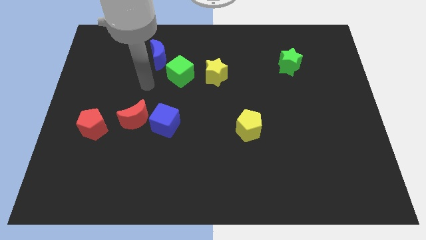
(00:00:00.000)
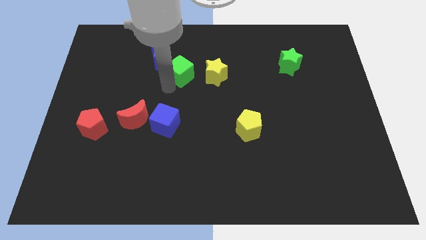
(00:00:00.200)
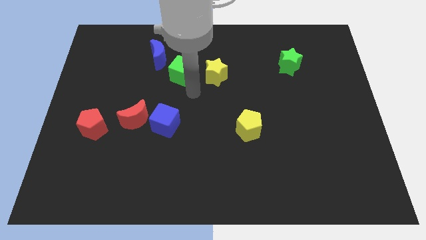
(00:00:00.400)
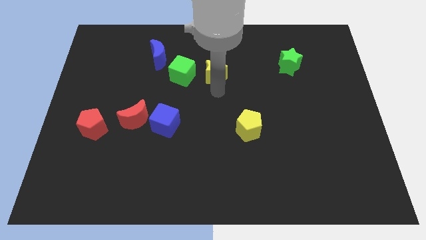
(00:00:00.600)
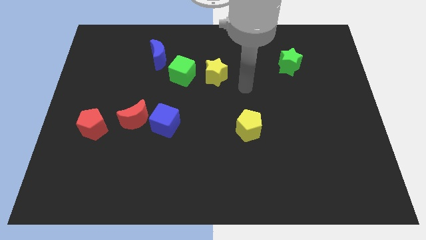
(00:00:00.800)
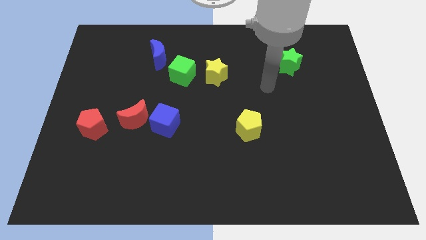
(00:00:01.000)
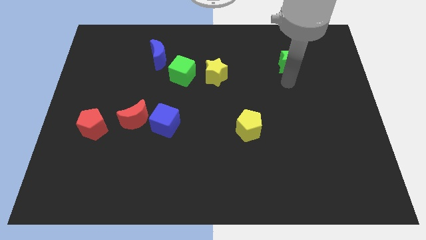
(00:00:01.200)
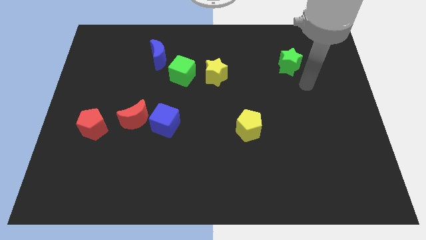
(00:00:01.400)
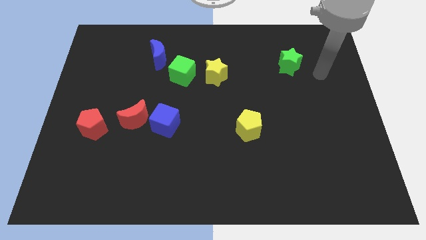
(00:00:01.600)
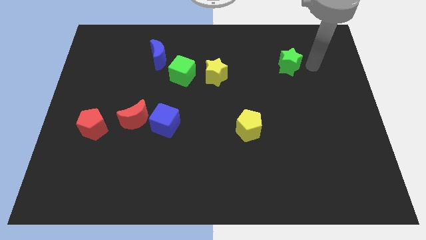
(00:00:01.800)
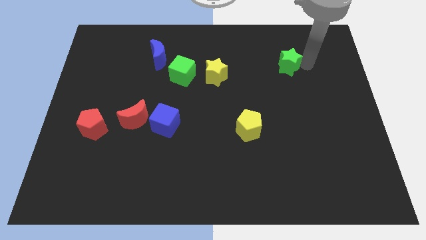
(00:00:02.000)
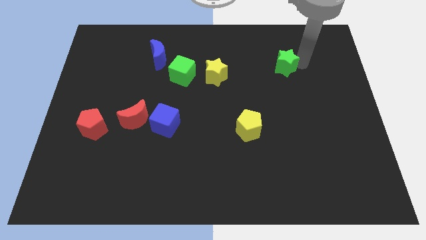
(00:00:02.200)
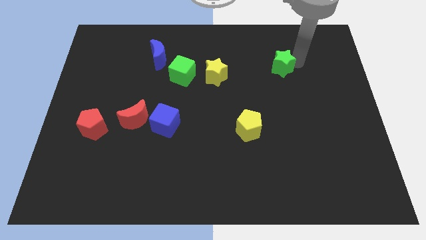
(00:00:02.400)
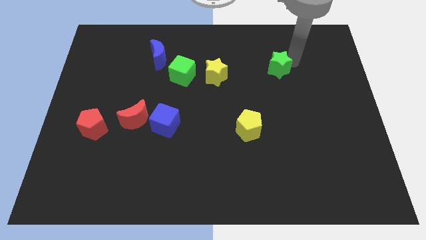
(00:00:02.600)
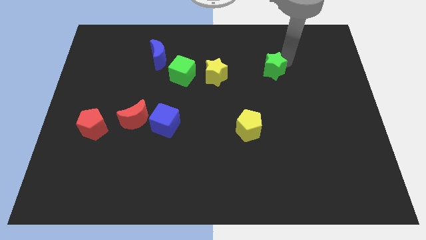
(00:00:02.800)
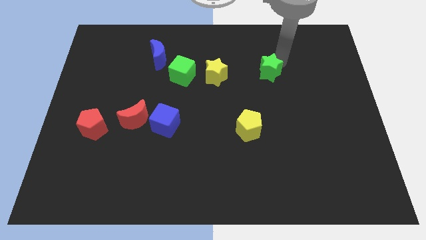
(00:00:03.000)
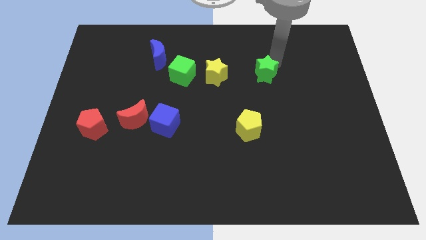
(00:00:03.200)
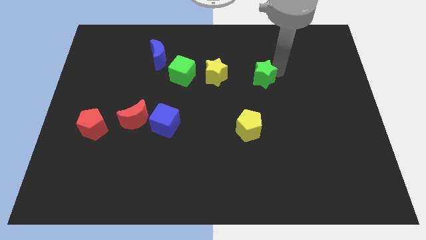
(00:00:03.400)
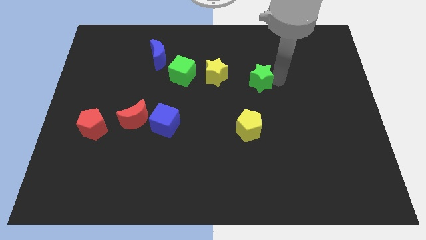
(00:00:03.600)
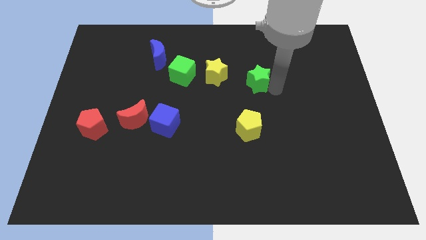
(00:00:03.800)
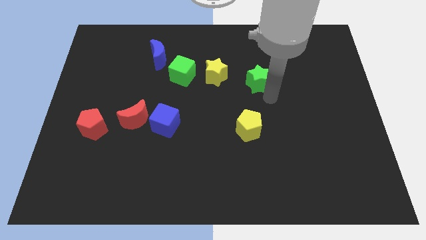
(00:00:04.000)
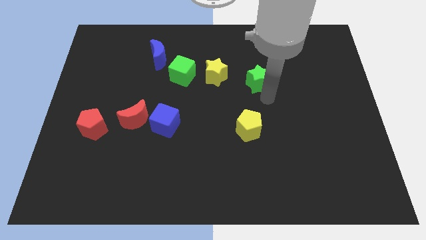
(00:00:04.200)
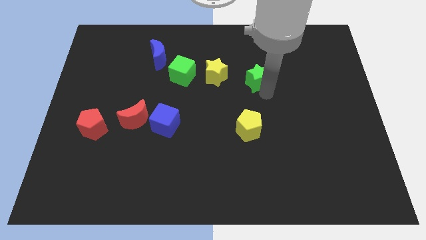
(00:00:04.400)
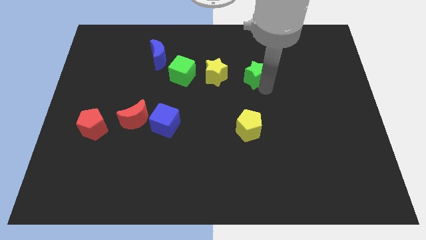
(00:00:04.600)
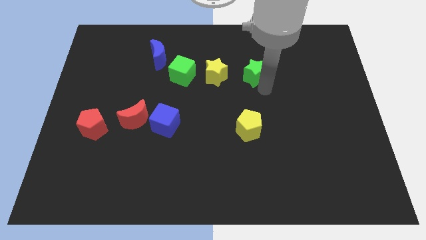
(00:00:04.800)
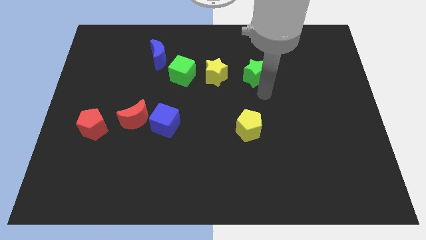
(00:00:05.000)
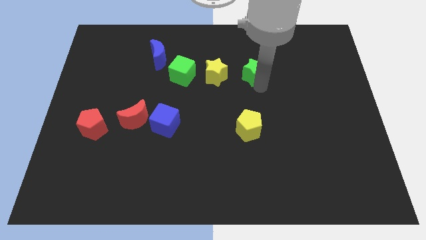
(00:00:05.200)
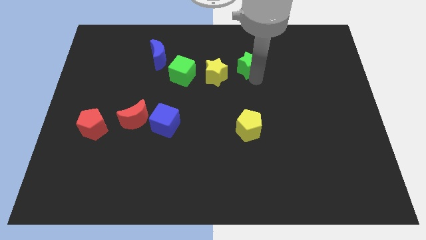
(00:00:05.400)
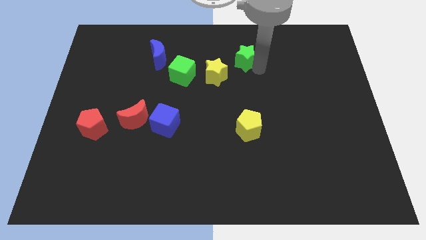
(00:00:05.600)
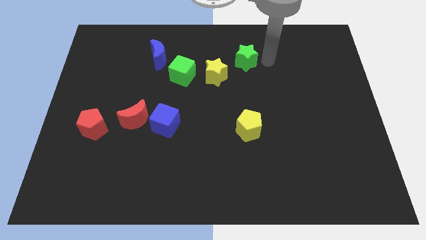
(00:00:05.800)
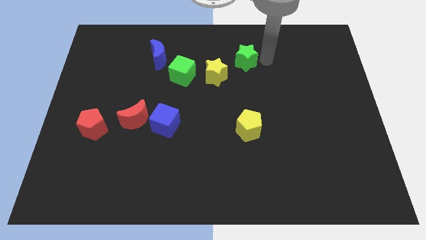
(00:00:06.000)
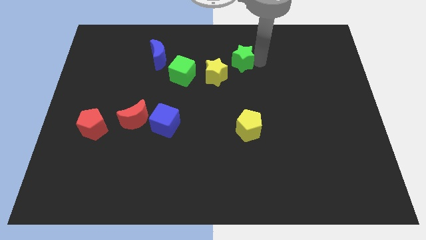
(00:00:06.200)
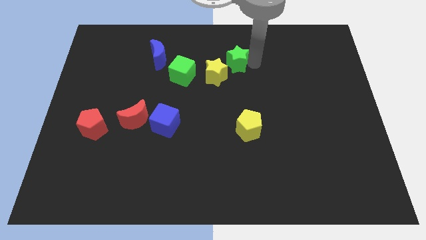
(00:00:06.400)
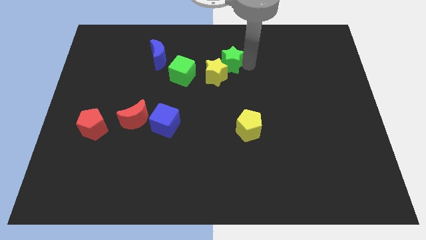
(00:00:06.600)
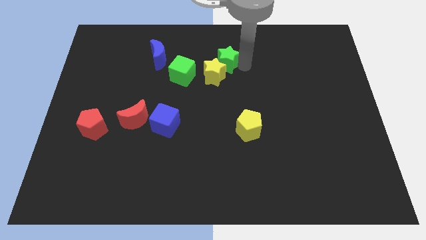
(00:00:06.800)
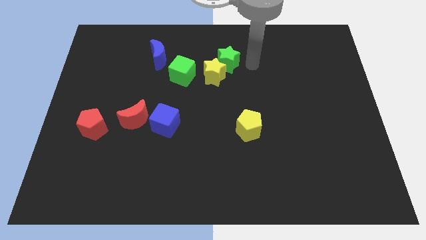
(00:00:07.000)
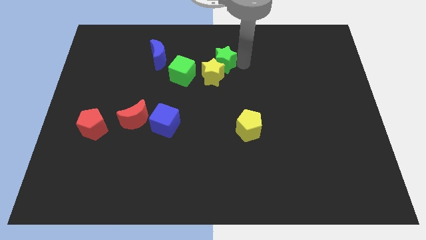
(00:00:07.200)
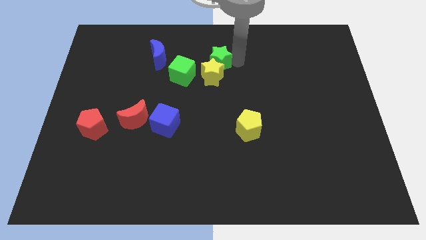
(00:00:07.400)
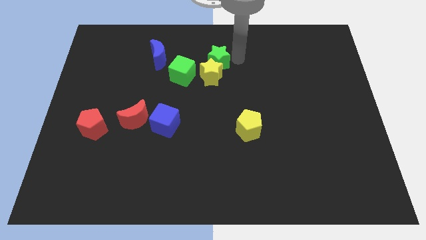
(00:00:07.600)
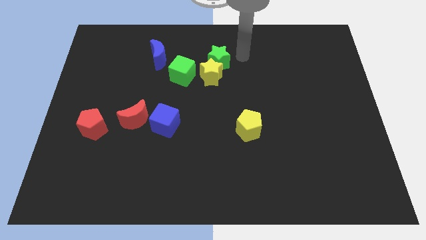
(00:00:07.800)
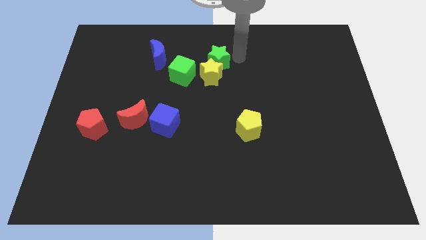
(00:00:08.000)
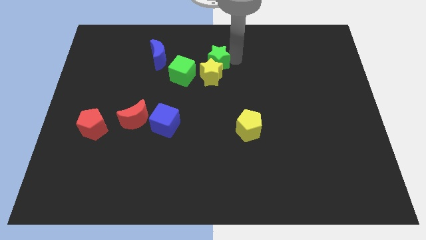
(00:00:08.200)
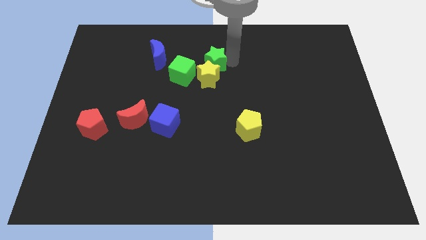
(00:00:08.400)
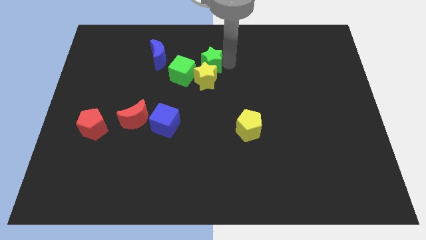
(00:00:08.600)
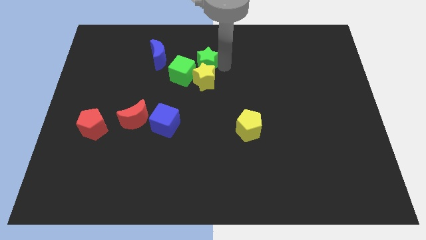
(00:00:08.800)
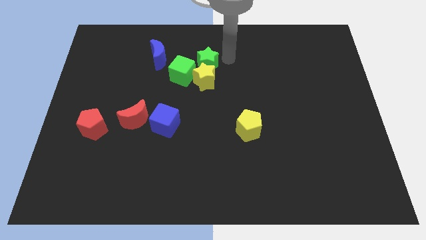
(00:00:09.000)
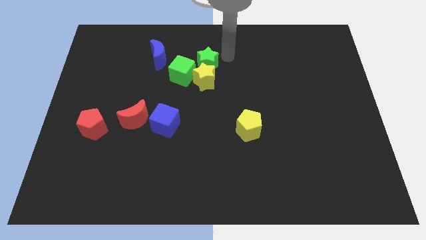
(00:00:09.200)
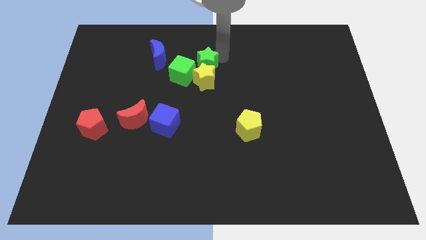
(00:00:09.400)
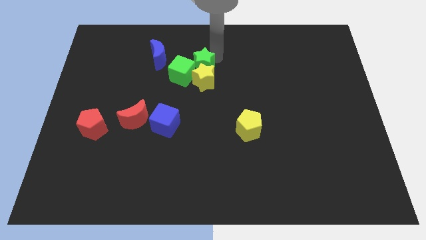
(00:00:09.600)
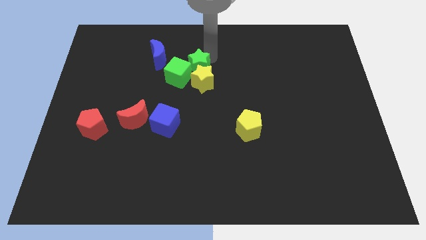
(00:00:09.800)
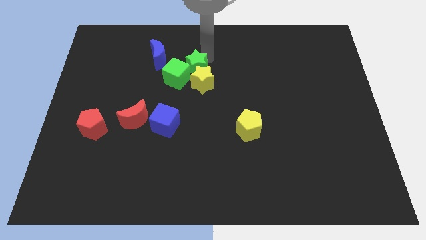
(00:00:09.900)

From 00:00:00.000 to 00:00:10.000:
move the green star to the green cube

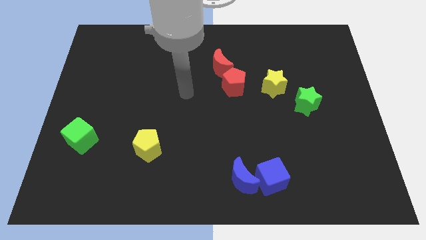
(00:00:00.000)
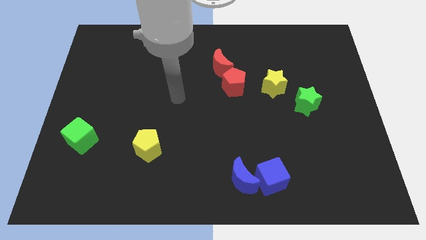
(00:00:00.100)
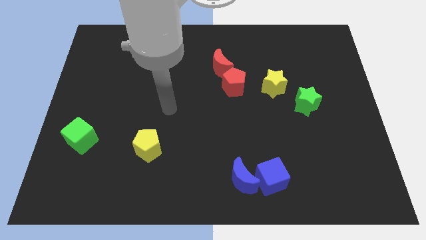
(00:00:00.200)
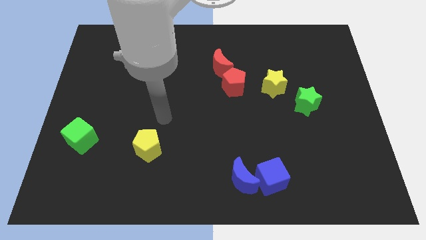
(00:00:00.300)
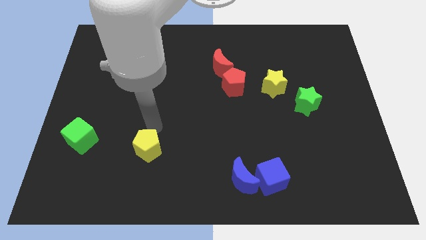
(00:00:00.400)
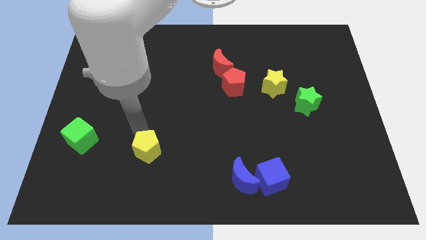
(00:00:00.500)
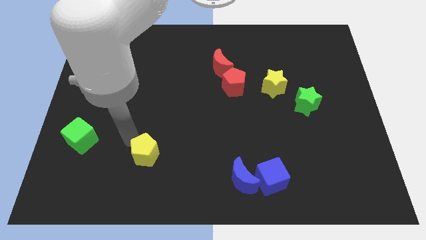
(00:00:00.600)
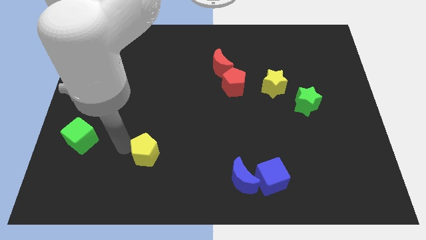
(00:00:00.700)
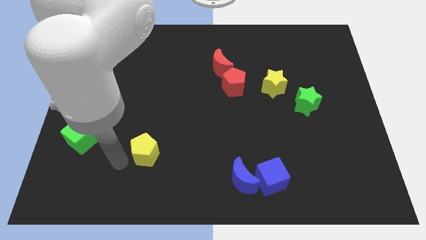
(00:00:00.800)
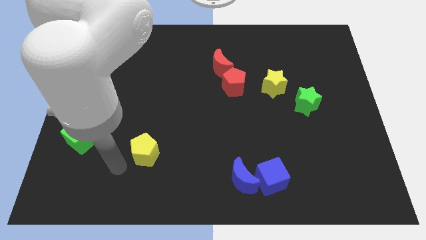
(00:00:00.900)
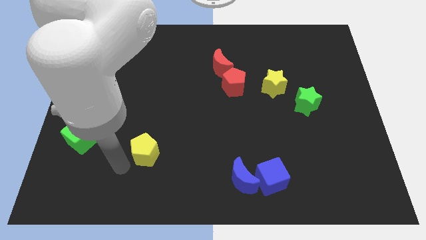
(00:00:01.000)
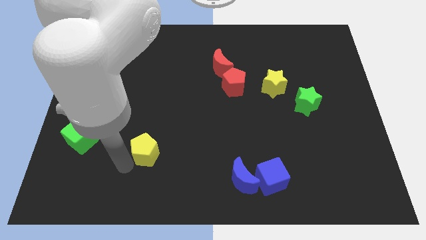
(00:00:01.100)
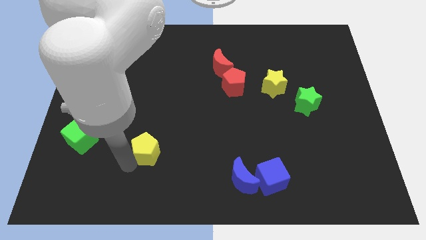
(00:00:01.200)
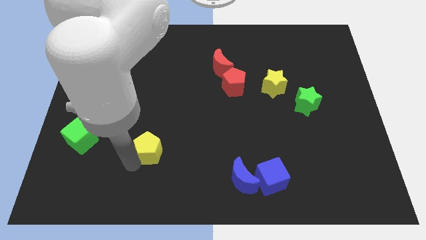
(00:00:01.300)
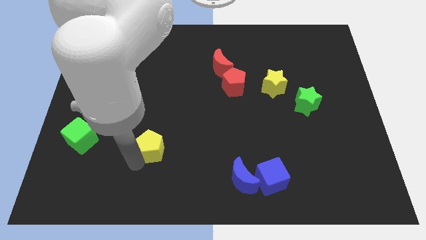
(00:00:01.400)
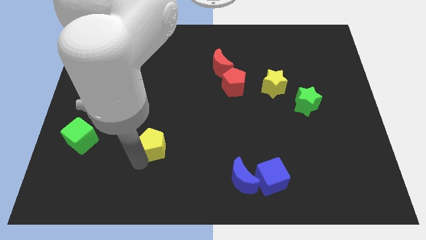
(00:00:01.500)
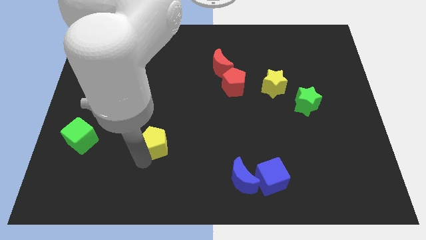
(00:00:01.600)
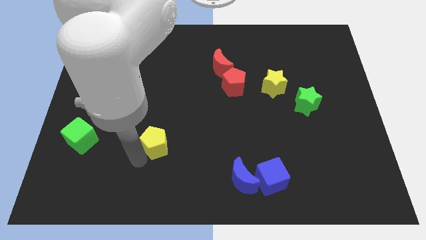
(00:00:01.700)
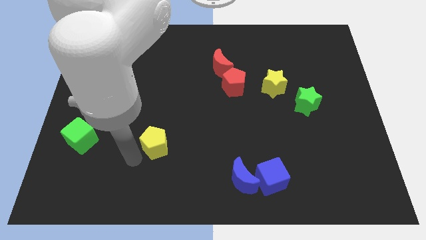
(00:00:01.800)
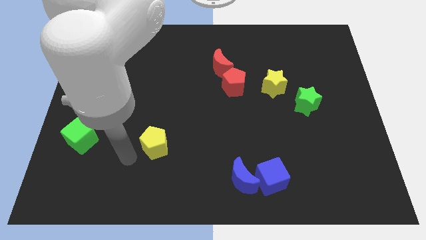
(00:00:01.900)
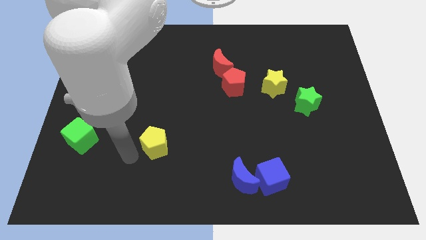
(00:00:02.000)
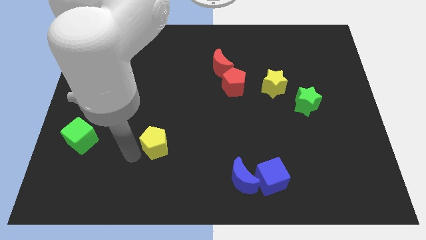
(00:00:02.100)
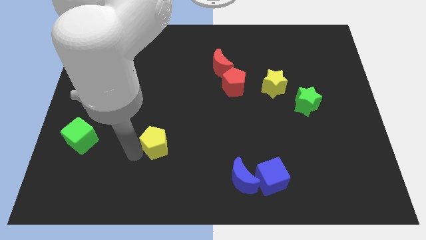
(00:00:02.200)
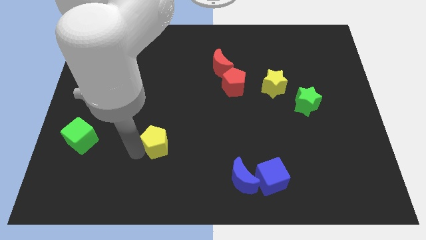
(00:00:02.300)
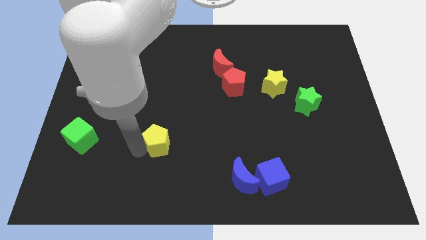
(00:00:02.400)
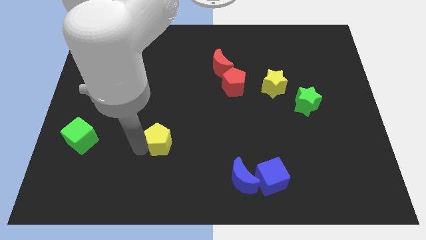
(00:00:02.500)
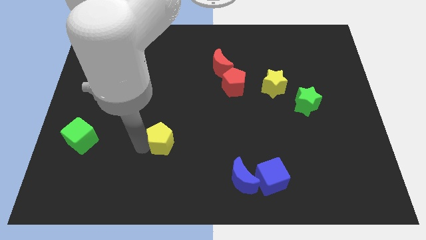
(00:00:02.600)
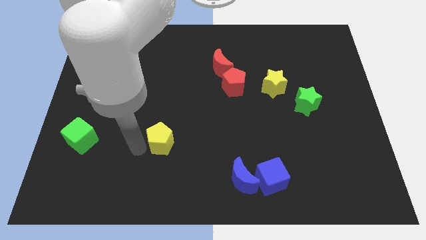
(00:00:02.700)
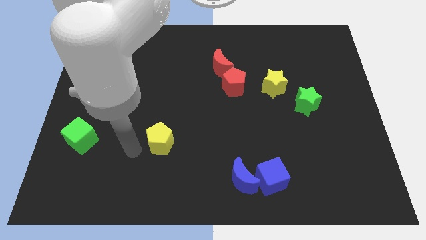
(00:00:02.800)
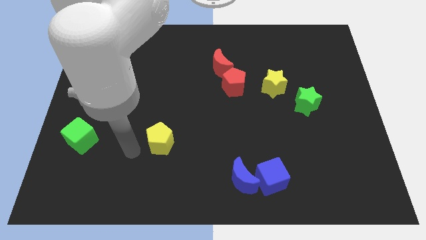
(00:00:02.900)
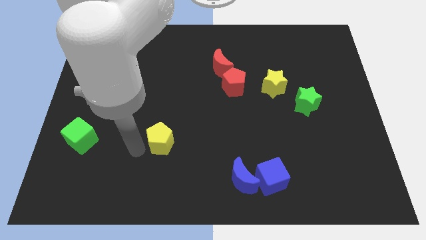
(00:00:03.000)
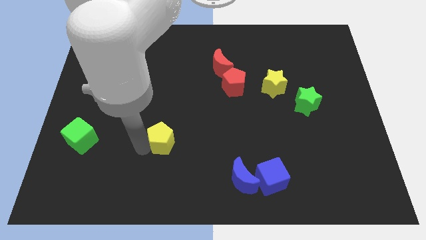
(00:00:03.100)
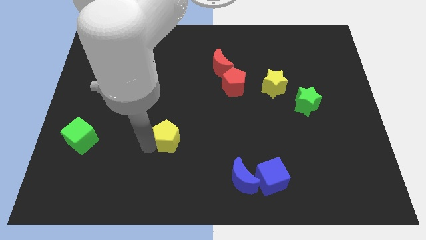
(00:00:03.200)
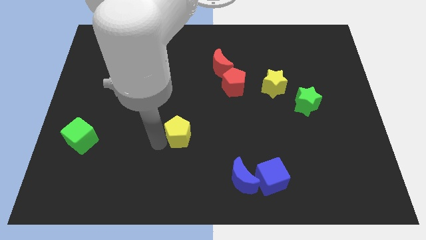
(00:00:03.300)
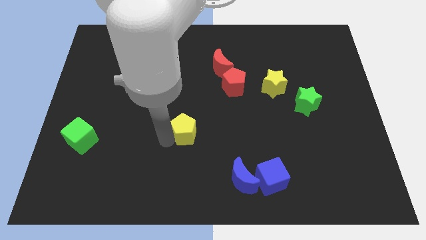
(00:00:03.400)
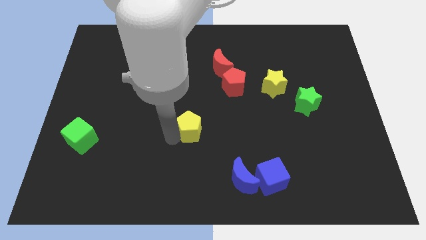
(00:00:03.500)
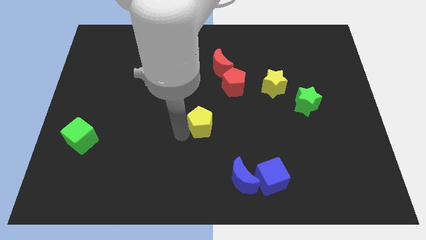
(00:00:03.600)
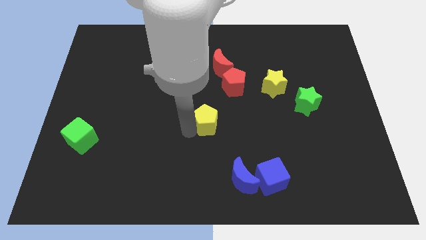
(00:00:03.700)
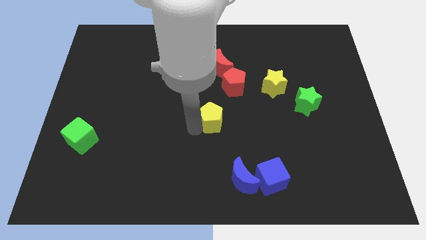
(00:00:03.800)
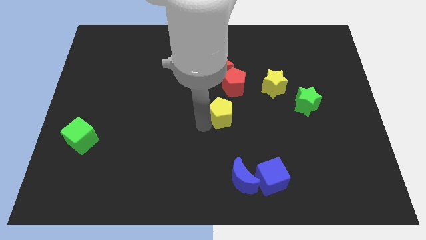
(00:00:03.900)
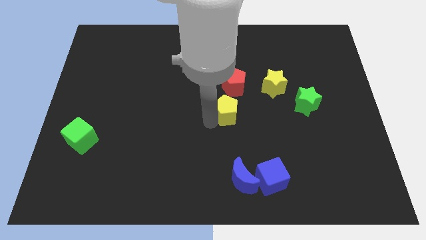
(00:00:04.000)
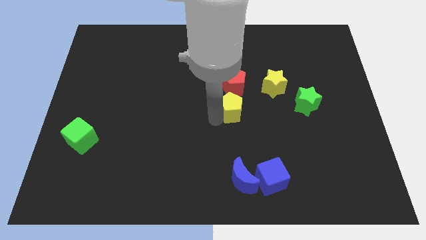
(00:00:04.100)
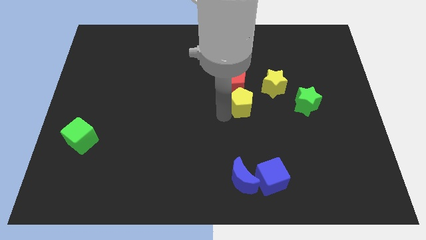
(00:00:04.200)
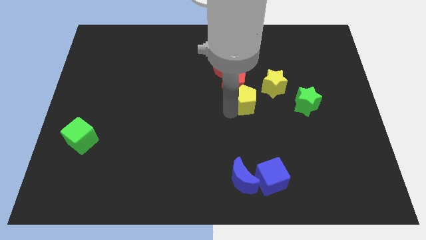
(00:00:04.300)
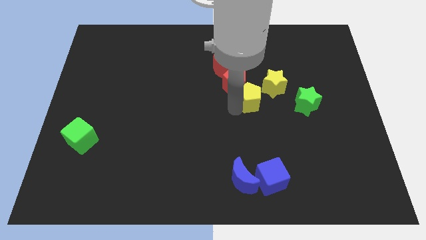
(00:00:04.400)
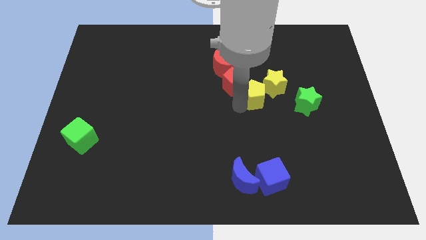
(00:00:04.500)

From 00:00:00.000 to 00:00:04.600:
put the yellow pentagon to the yellow star
